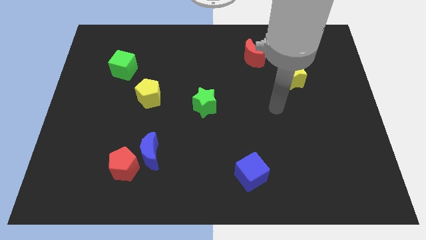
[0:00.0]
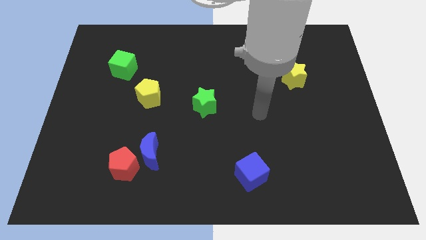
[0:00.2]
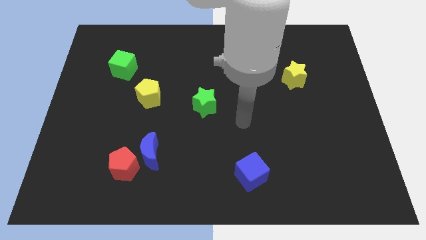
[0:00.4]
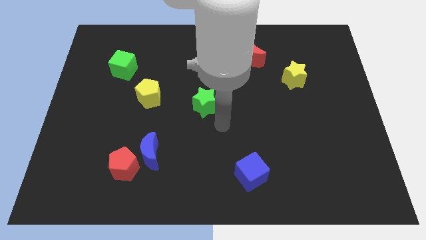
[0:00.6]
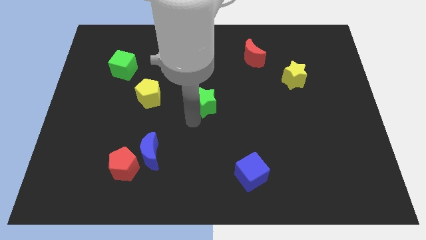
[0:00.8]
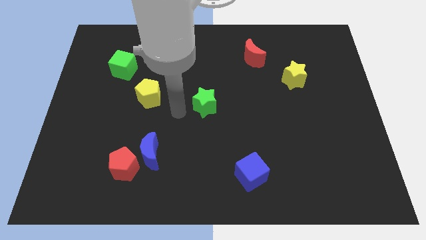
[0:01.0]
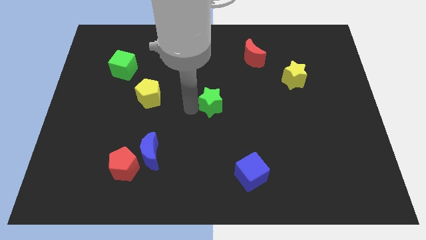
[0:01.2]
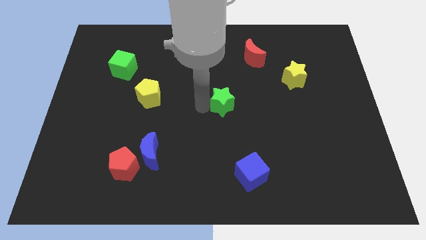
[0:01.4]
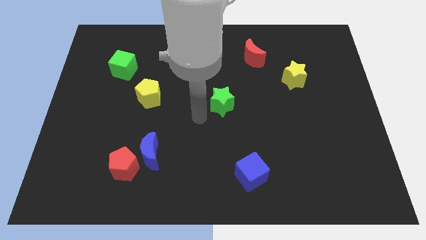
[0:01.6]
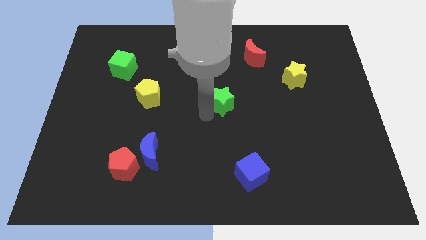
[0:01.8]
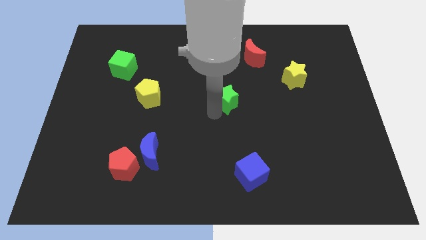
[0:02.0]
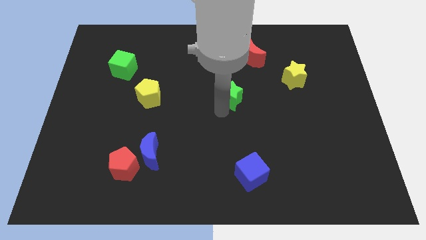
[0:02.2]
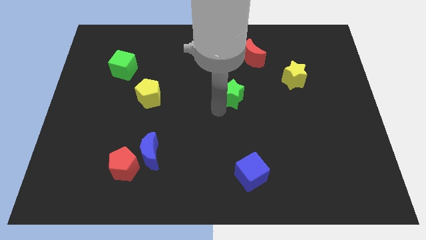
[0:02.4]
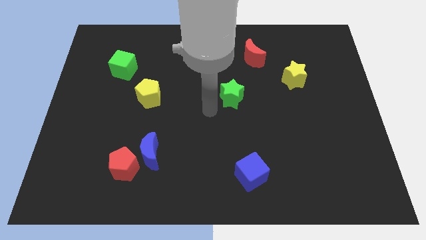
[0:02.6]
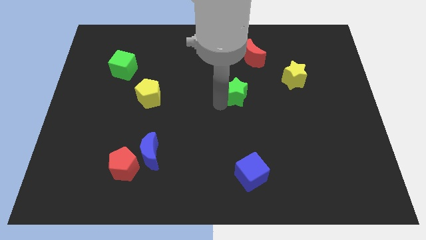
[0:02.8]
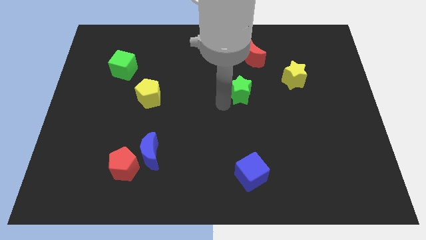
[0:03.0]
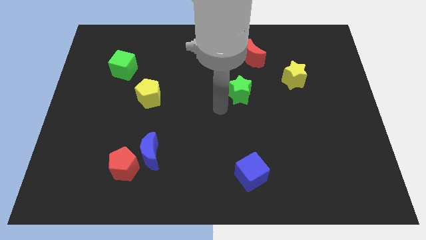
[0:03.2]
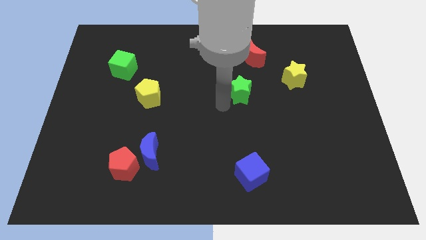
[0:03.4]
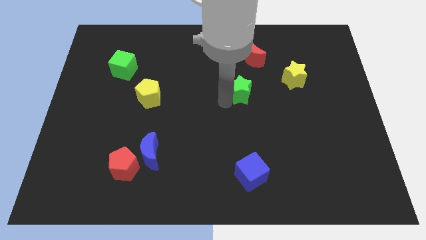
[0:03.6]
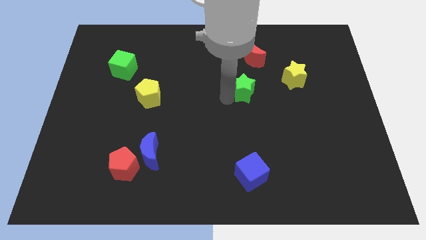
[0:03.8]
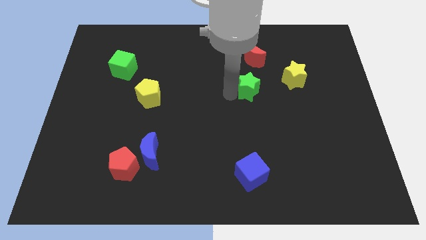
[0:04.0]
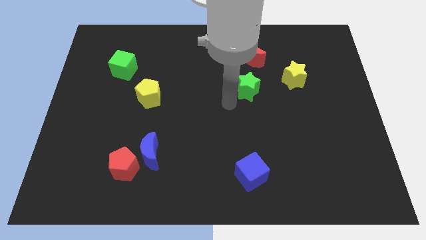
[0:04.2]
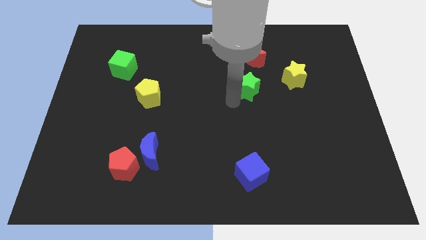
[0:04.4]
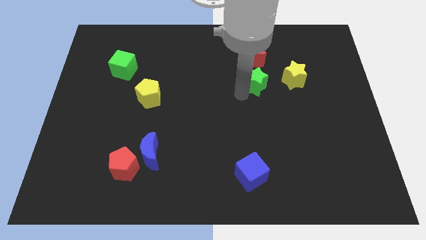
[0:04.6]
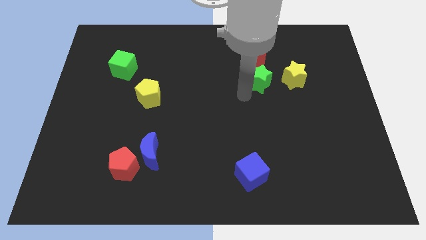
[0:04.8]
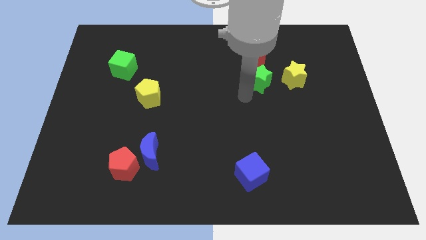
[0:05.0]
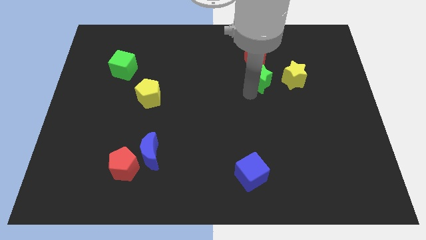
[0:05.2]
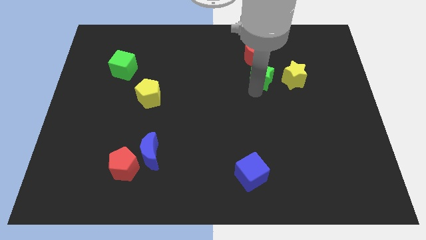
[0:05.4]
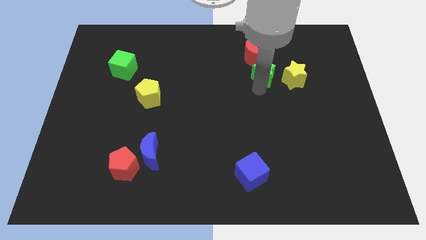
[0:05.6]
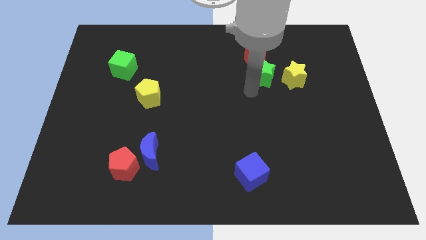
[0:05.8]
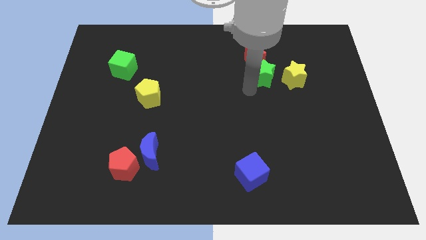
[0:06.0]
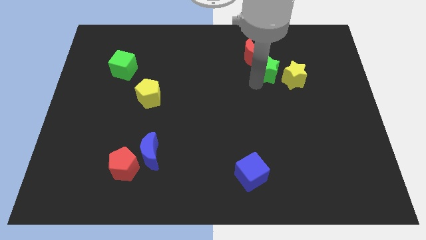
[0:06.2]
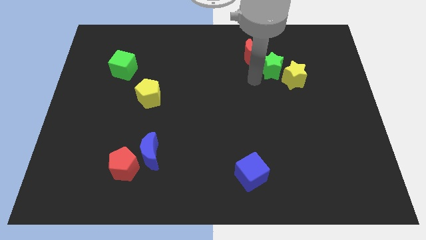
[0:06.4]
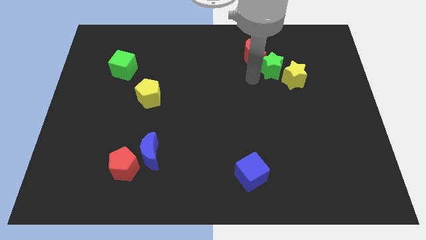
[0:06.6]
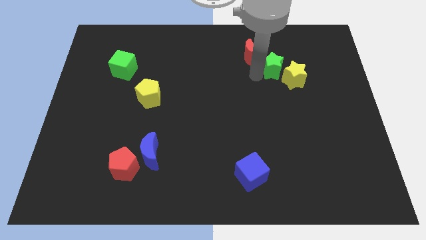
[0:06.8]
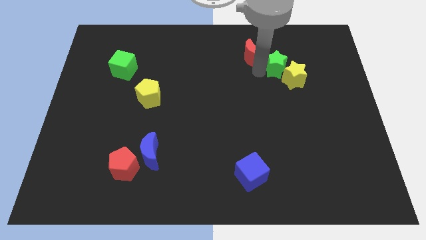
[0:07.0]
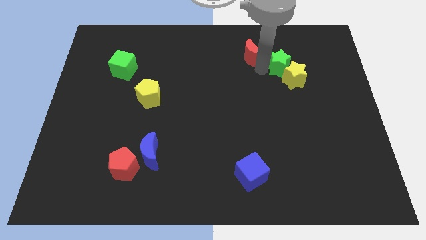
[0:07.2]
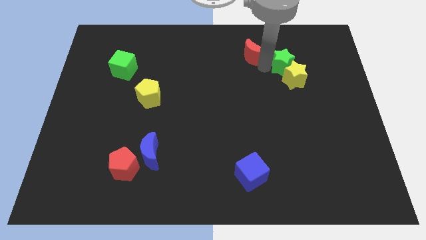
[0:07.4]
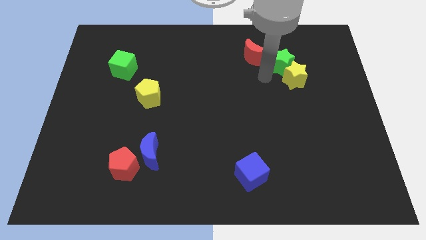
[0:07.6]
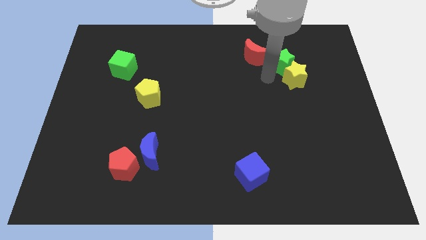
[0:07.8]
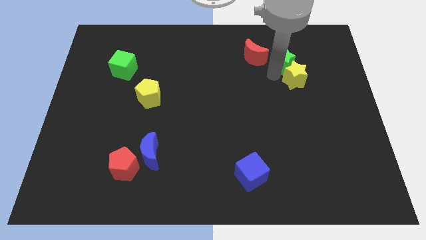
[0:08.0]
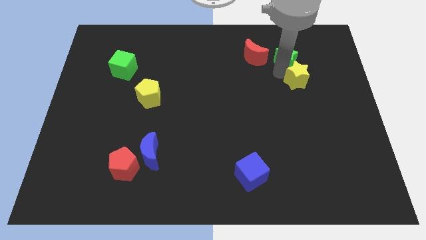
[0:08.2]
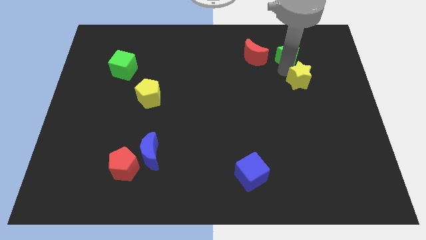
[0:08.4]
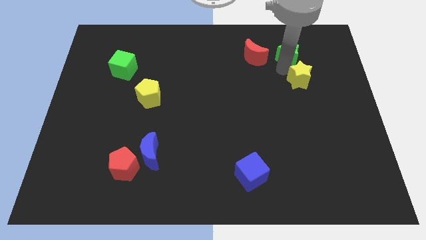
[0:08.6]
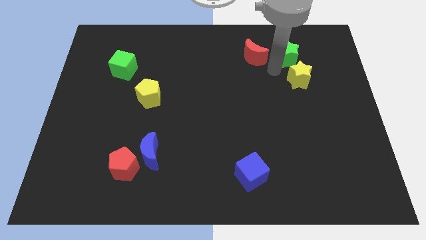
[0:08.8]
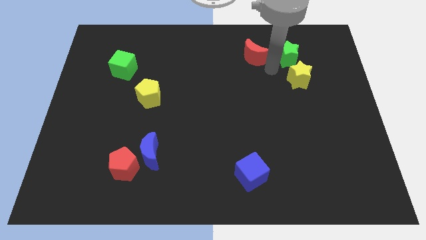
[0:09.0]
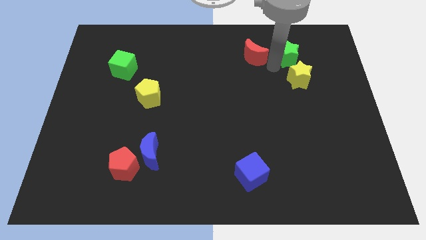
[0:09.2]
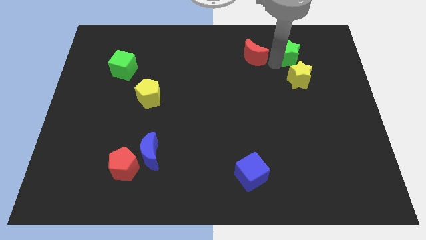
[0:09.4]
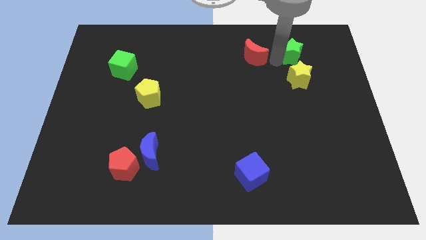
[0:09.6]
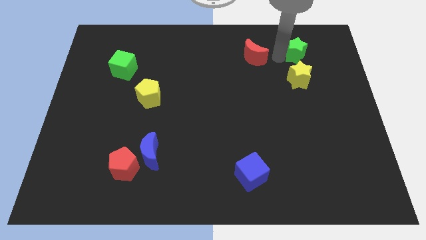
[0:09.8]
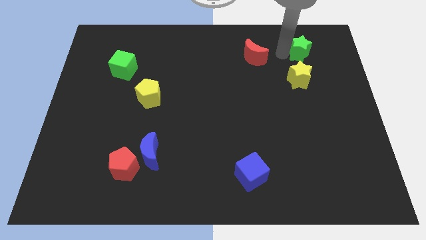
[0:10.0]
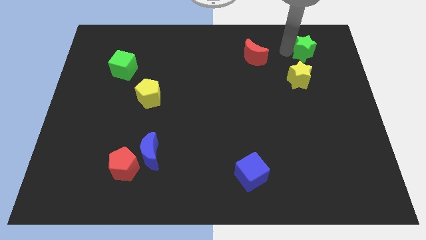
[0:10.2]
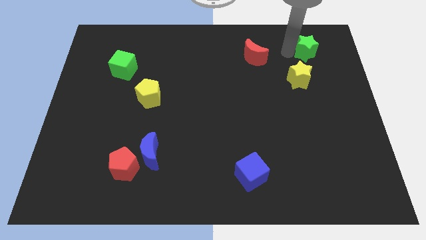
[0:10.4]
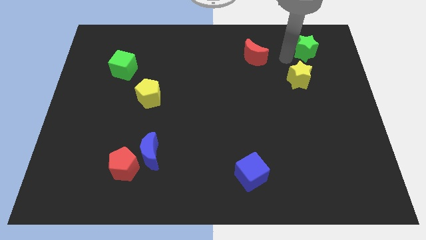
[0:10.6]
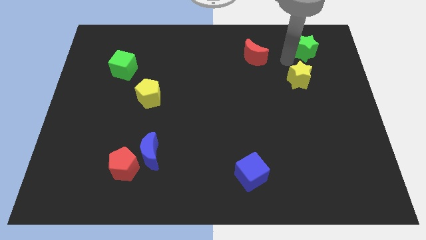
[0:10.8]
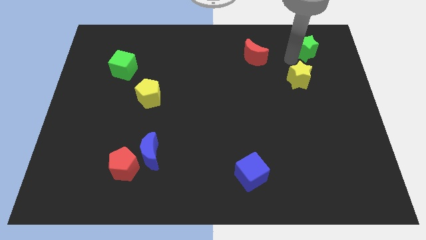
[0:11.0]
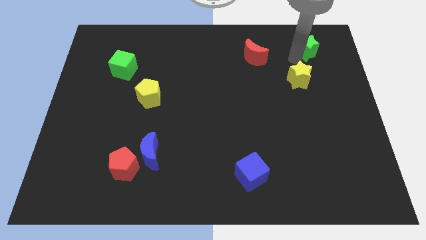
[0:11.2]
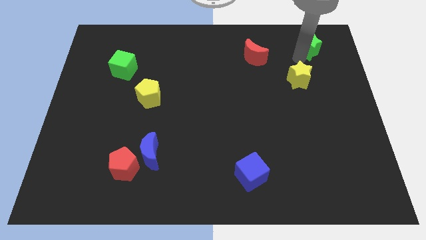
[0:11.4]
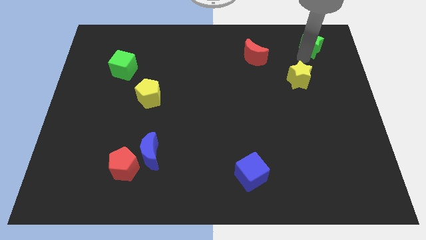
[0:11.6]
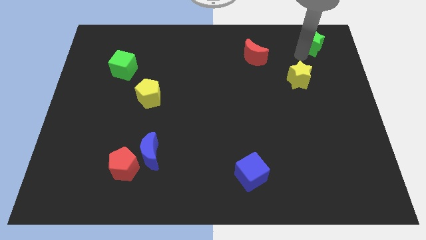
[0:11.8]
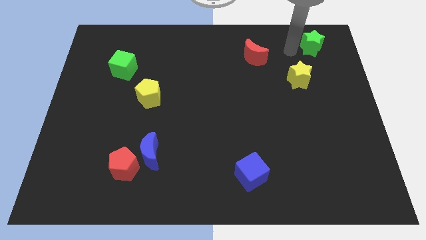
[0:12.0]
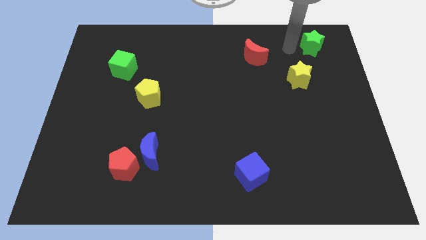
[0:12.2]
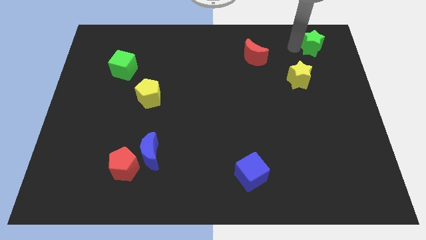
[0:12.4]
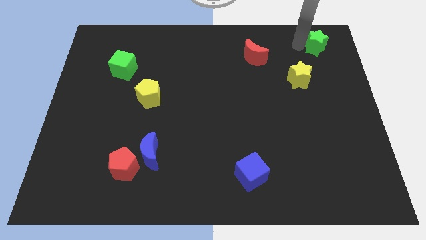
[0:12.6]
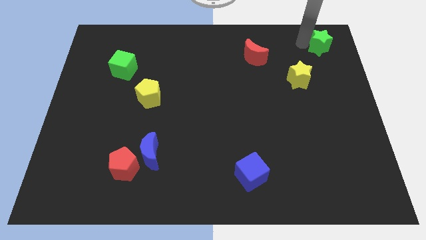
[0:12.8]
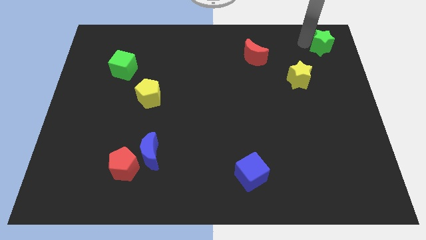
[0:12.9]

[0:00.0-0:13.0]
push the green star to the upper right corner
